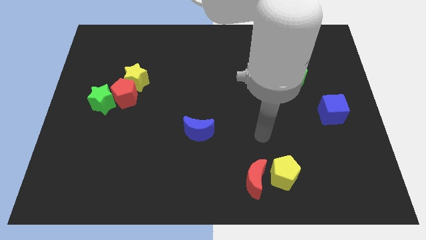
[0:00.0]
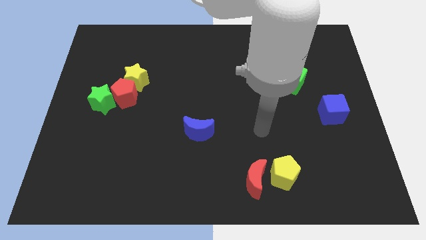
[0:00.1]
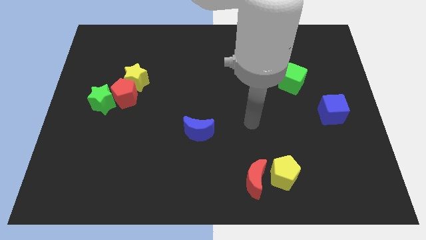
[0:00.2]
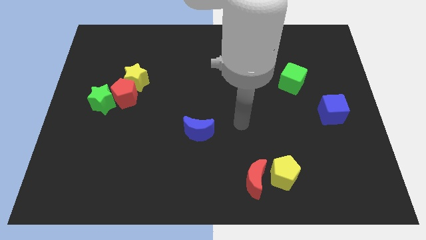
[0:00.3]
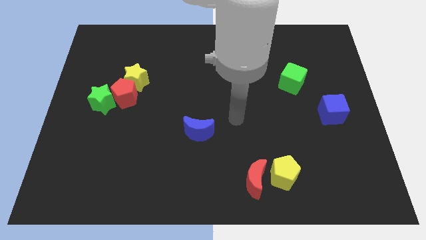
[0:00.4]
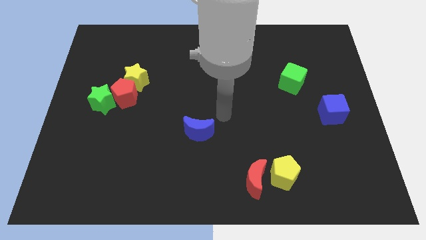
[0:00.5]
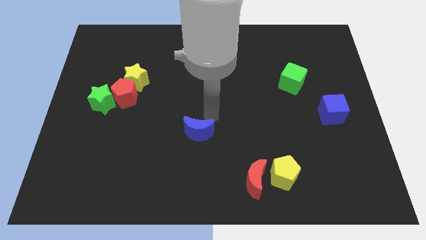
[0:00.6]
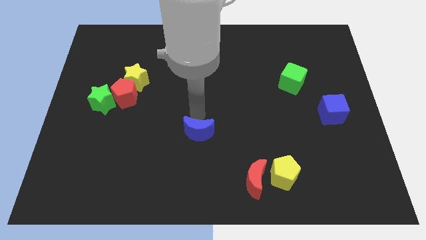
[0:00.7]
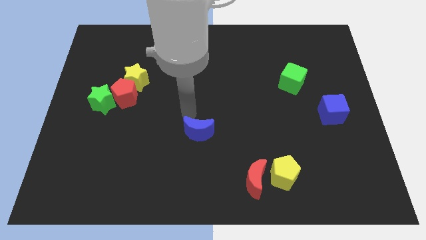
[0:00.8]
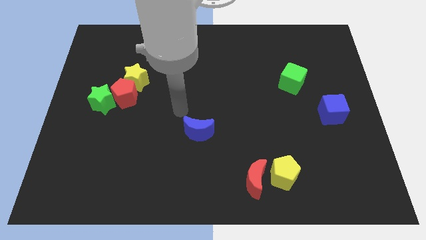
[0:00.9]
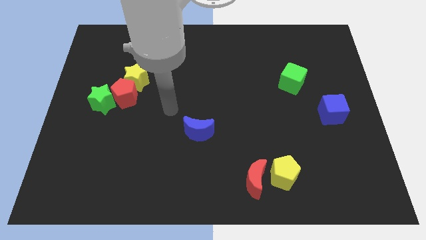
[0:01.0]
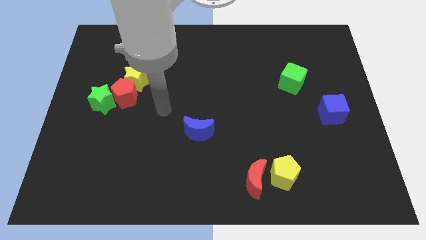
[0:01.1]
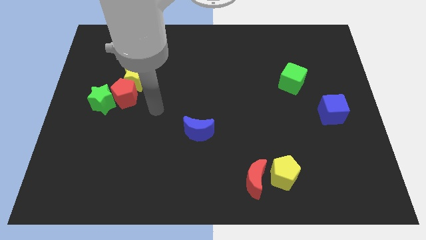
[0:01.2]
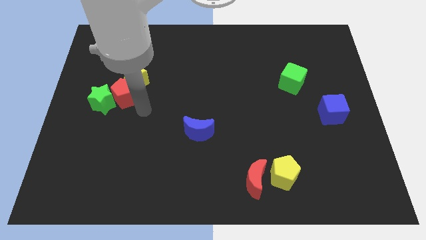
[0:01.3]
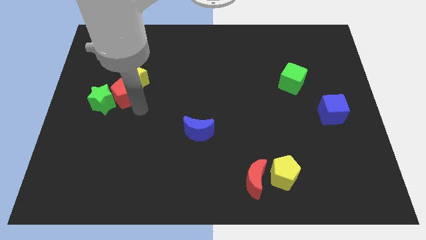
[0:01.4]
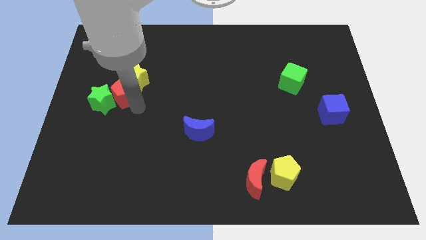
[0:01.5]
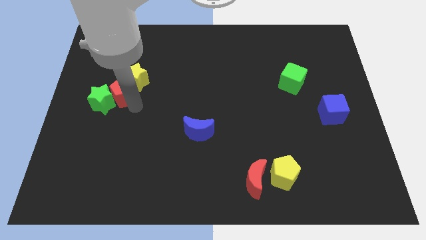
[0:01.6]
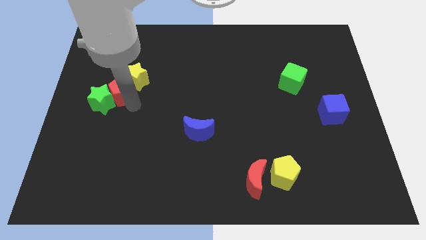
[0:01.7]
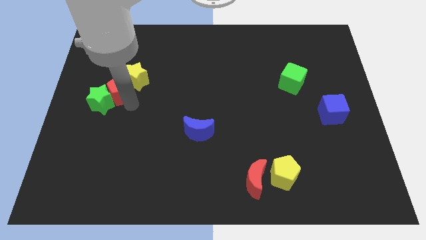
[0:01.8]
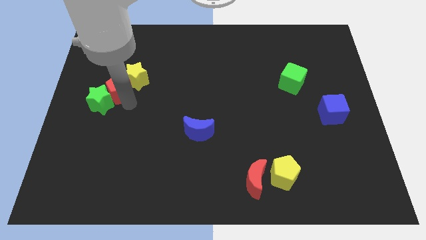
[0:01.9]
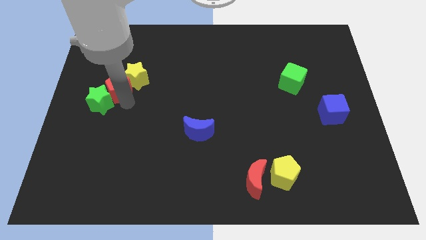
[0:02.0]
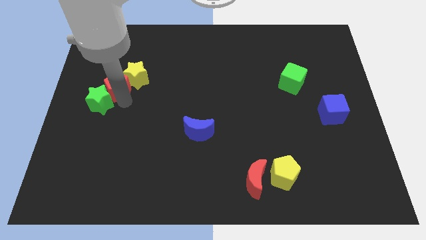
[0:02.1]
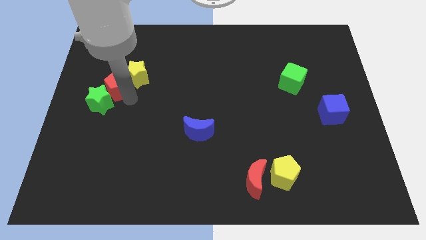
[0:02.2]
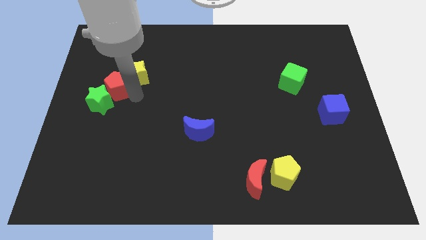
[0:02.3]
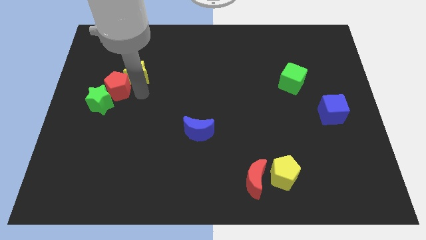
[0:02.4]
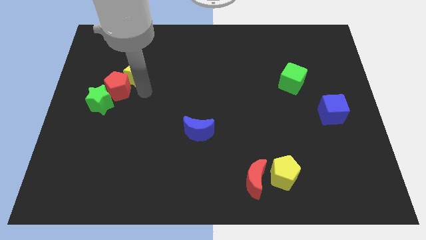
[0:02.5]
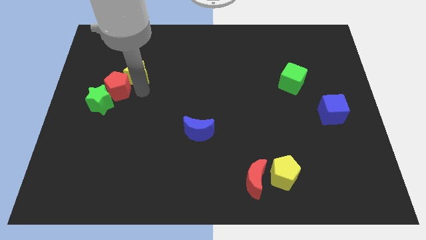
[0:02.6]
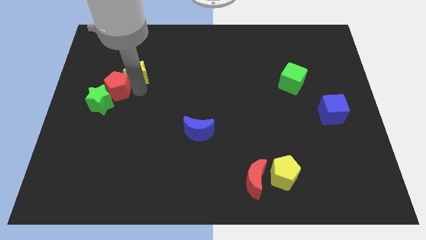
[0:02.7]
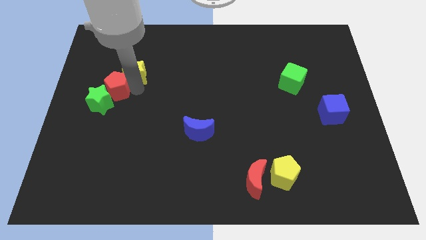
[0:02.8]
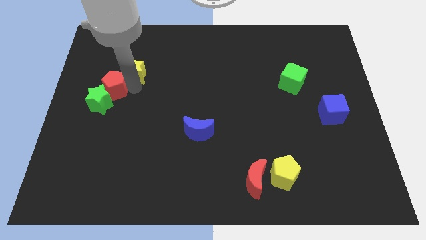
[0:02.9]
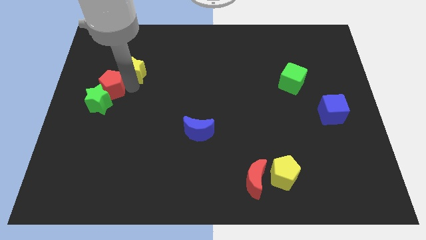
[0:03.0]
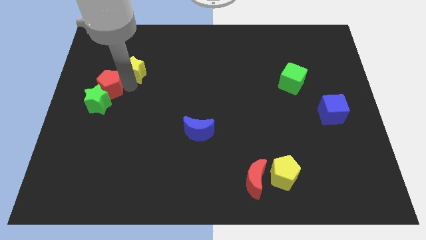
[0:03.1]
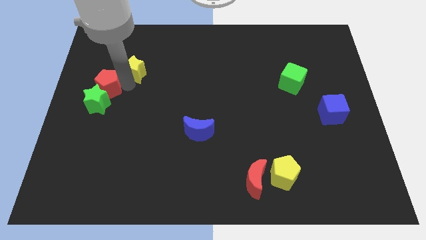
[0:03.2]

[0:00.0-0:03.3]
slide the red pentagon to the left side of the board

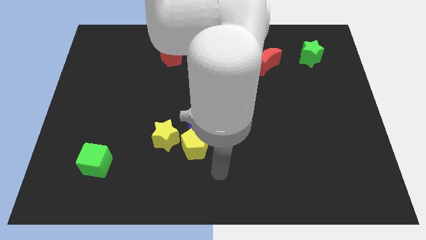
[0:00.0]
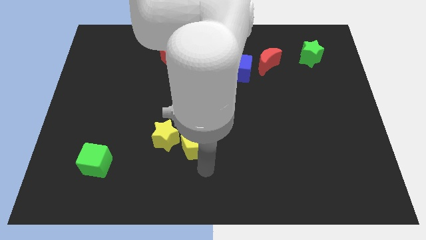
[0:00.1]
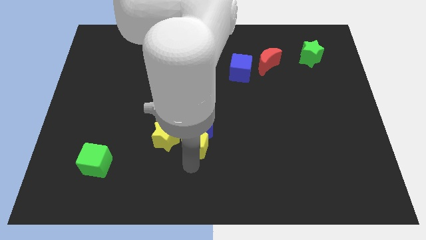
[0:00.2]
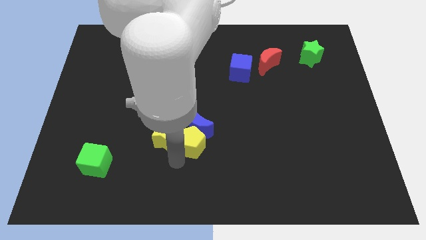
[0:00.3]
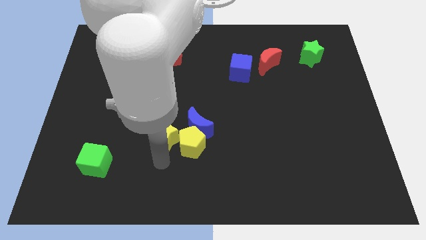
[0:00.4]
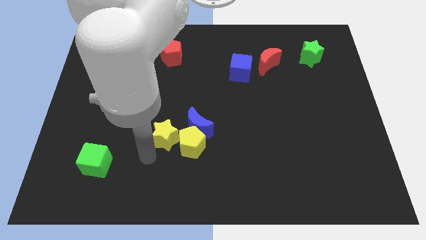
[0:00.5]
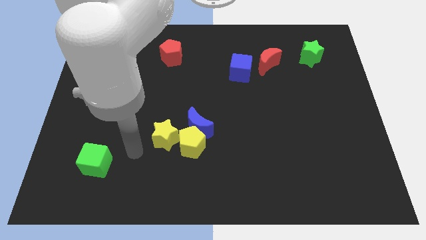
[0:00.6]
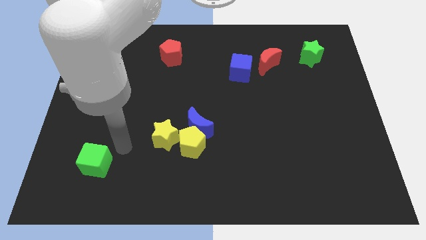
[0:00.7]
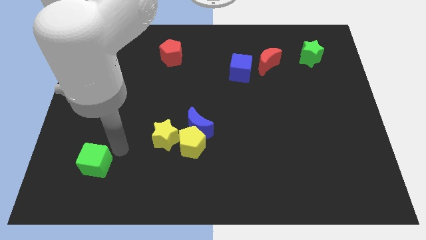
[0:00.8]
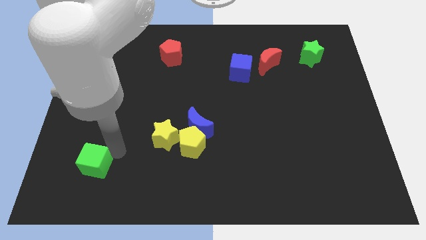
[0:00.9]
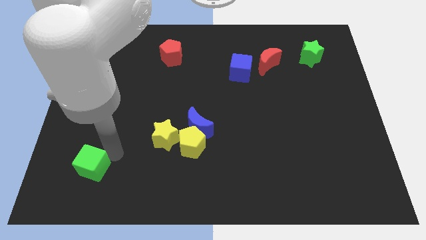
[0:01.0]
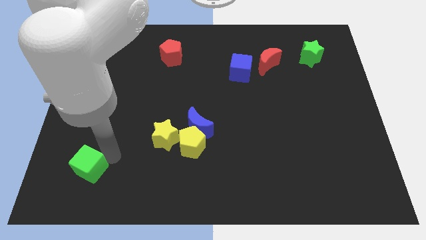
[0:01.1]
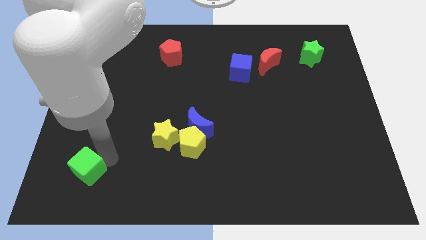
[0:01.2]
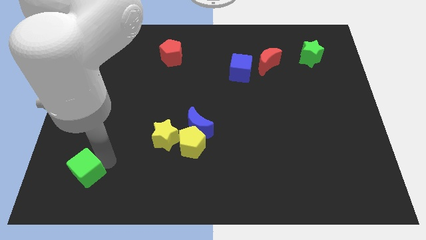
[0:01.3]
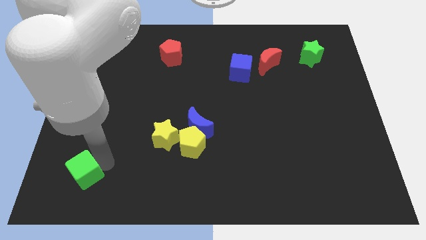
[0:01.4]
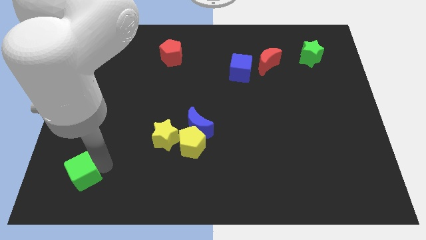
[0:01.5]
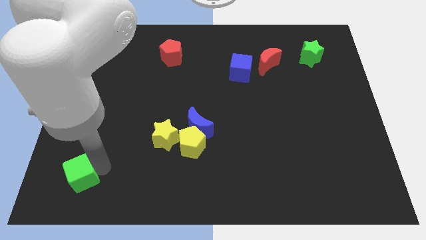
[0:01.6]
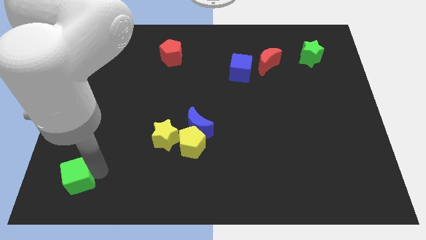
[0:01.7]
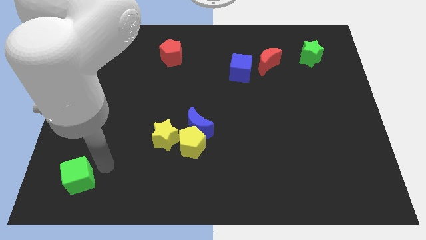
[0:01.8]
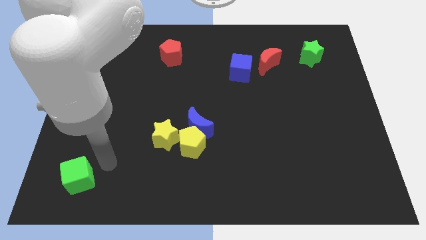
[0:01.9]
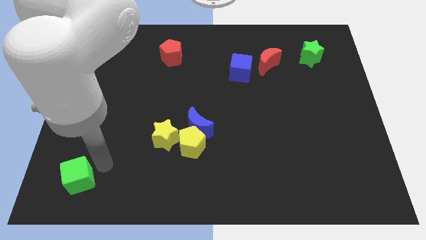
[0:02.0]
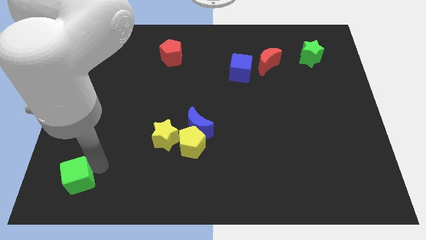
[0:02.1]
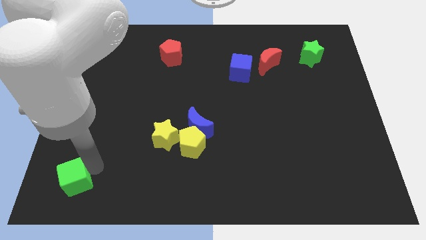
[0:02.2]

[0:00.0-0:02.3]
slide the green cube to the lower left corner

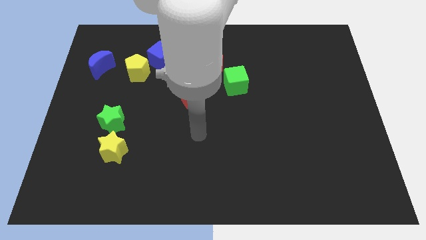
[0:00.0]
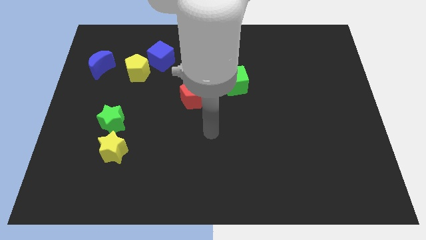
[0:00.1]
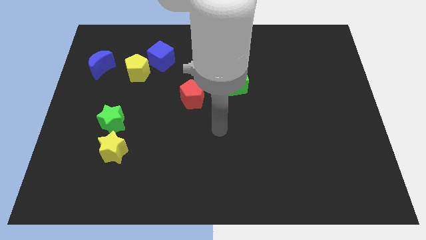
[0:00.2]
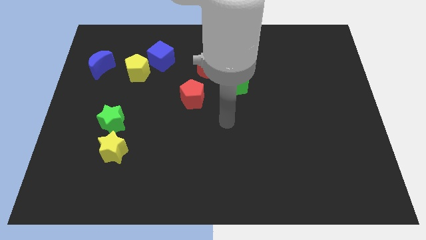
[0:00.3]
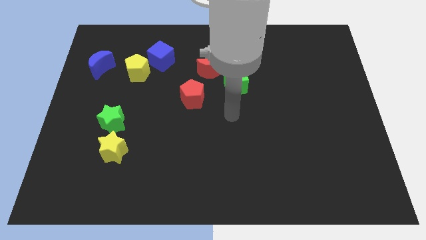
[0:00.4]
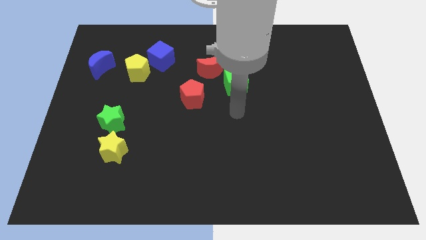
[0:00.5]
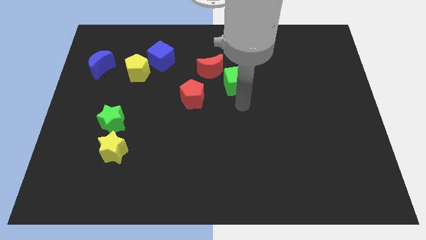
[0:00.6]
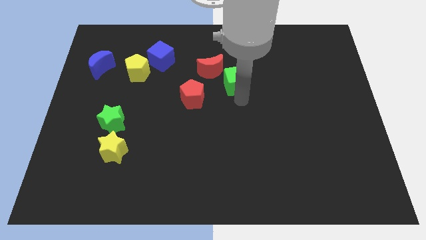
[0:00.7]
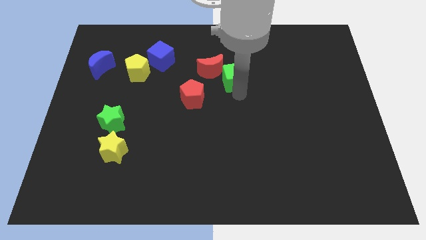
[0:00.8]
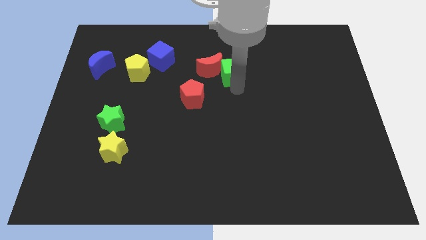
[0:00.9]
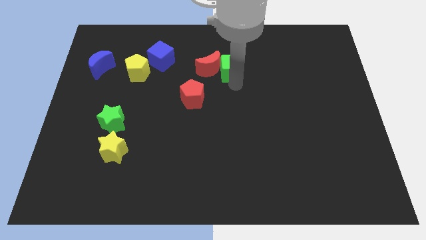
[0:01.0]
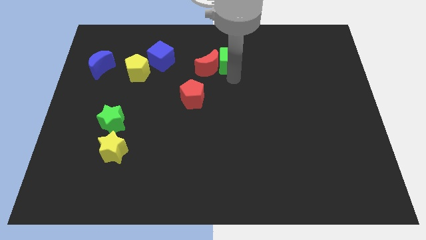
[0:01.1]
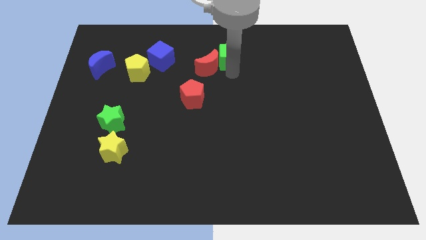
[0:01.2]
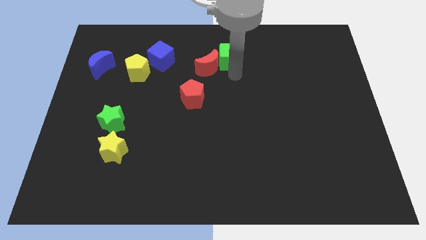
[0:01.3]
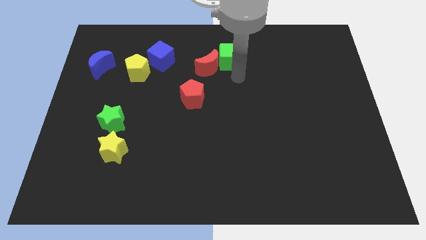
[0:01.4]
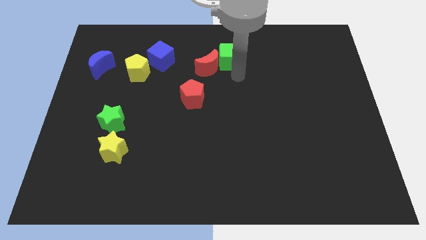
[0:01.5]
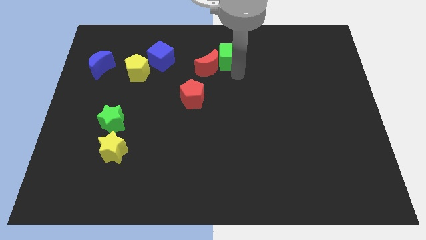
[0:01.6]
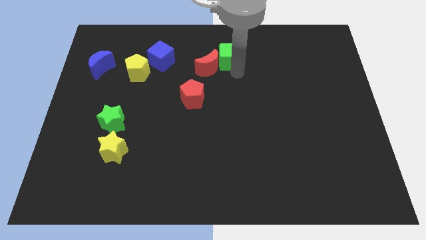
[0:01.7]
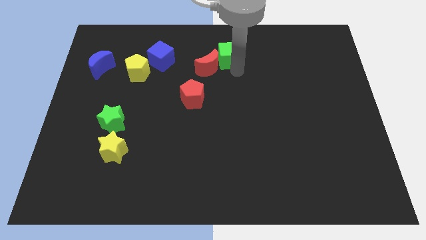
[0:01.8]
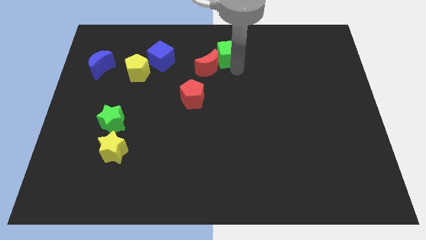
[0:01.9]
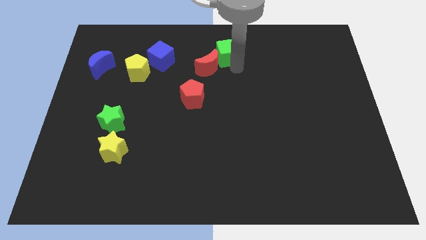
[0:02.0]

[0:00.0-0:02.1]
move the green cube to the top

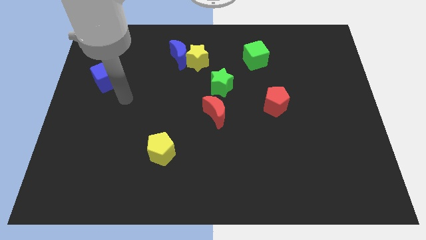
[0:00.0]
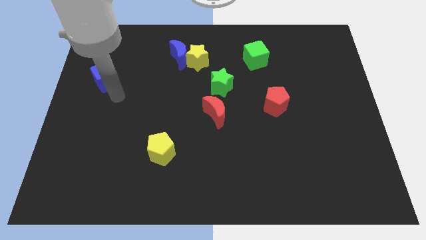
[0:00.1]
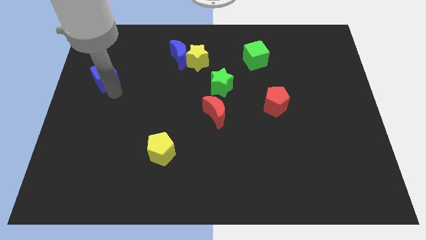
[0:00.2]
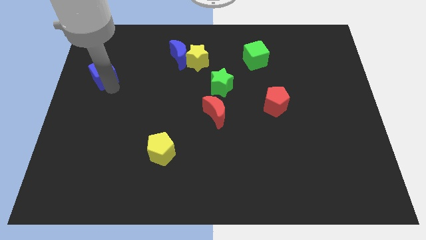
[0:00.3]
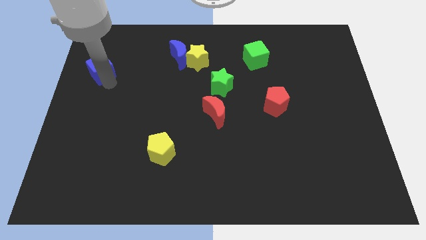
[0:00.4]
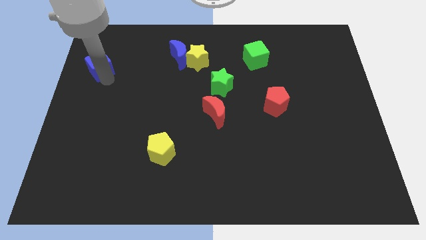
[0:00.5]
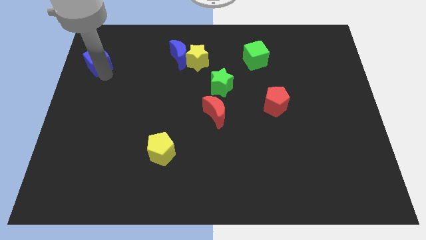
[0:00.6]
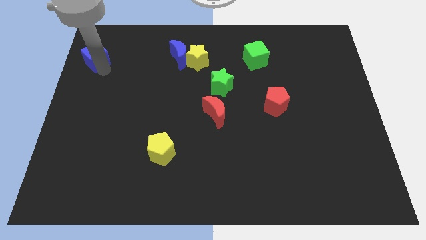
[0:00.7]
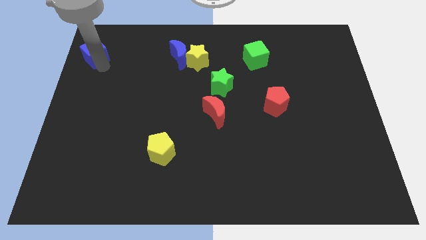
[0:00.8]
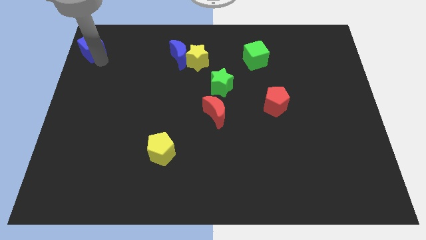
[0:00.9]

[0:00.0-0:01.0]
push the blue cube to the top left corner
